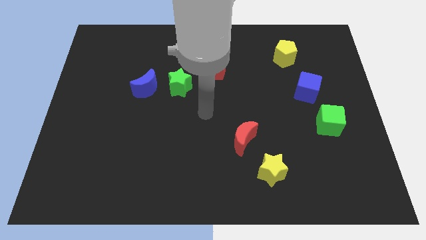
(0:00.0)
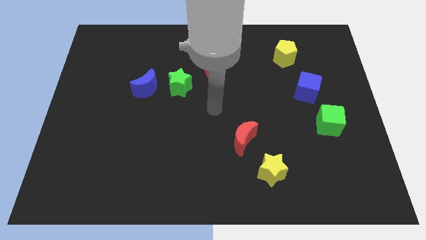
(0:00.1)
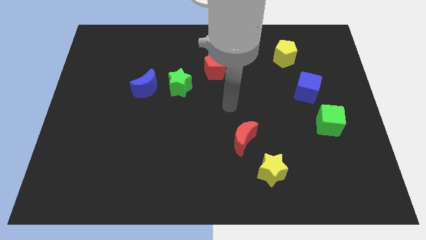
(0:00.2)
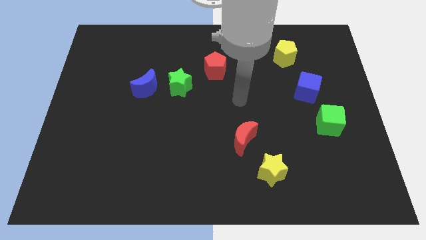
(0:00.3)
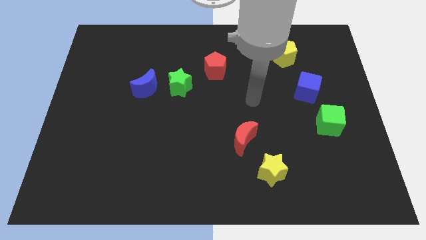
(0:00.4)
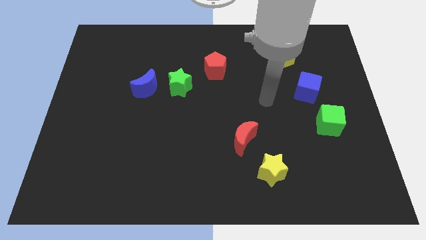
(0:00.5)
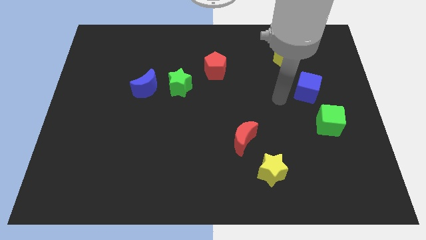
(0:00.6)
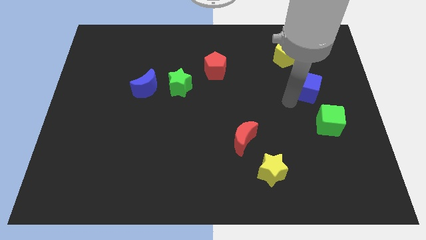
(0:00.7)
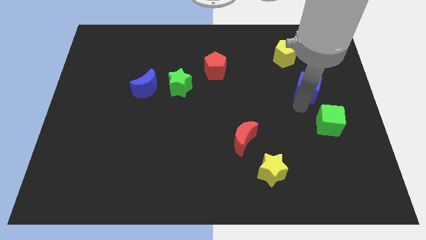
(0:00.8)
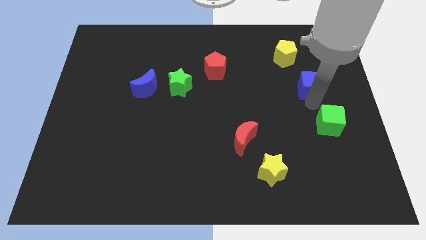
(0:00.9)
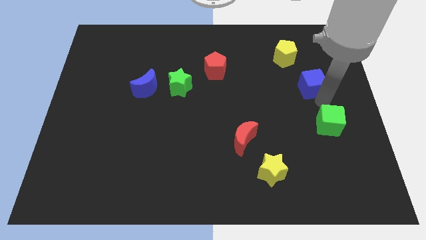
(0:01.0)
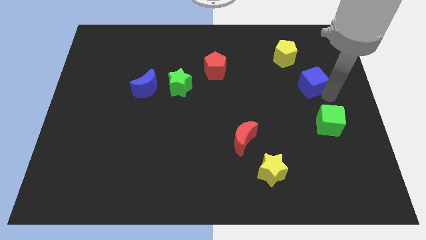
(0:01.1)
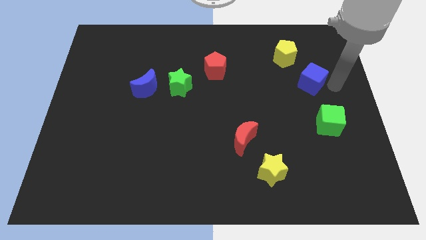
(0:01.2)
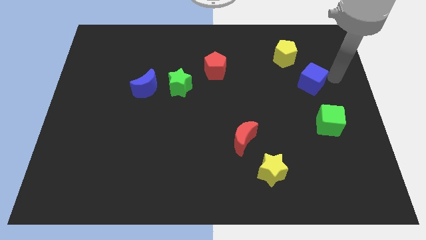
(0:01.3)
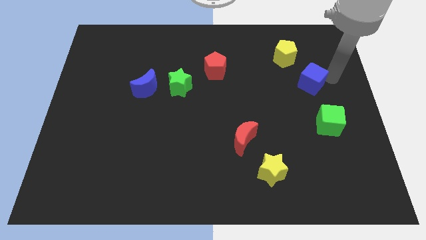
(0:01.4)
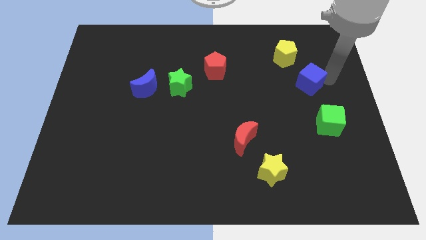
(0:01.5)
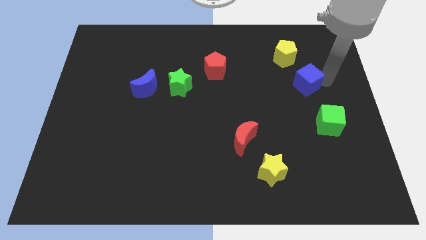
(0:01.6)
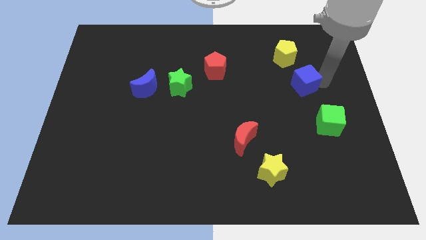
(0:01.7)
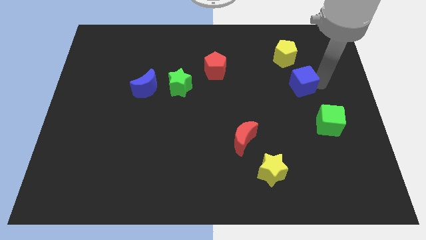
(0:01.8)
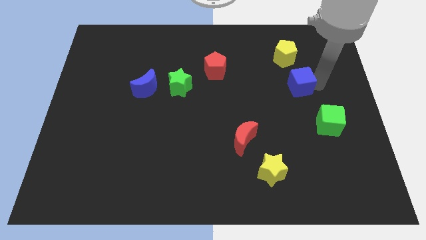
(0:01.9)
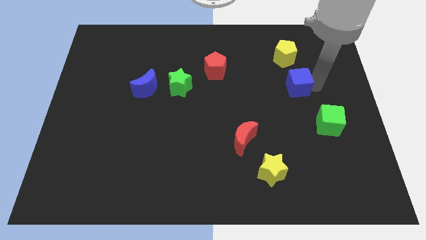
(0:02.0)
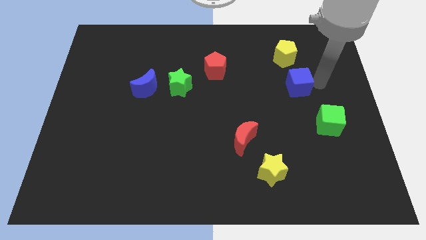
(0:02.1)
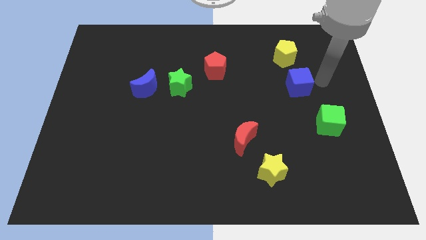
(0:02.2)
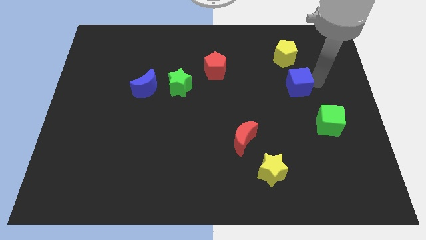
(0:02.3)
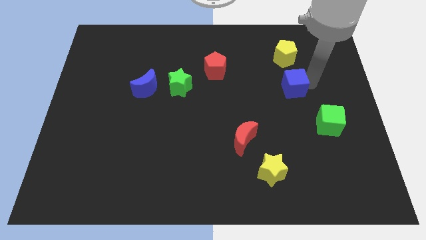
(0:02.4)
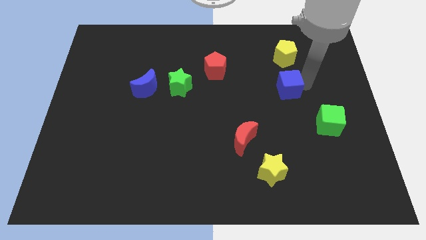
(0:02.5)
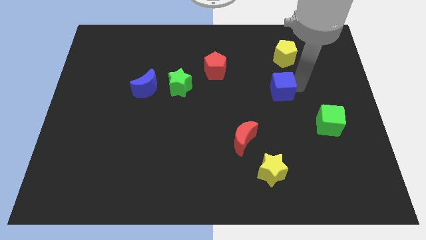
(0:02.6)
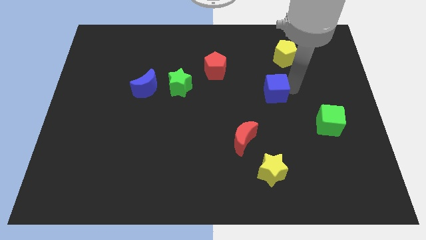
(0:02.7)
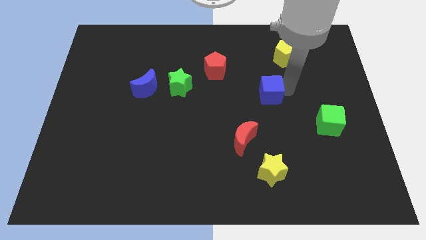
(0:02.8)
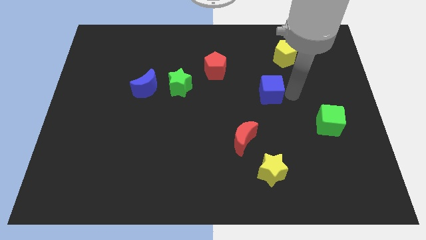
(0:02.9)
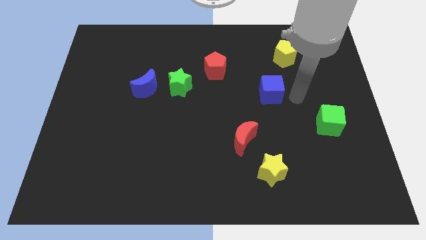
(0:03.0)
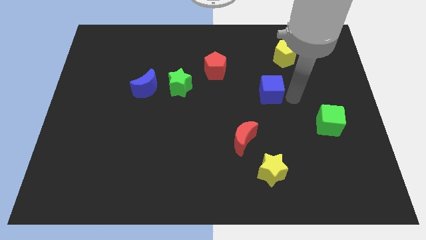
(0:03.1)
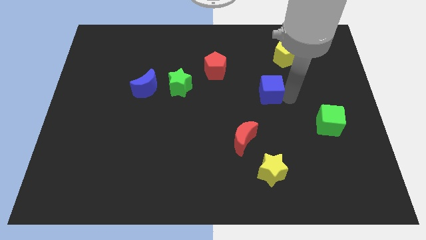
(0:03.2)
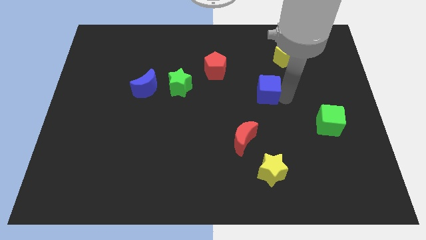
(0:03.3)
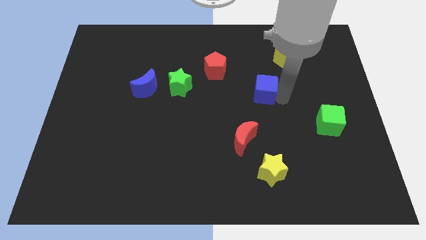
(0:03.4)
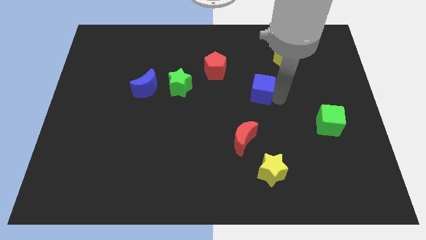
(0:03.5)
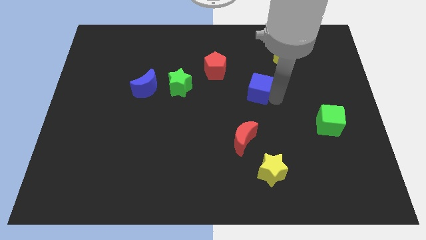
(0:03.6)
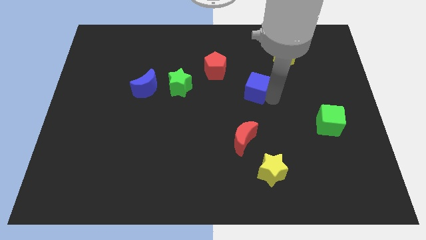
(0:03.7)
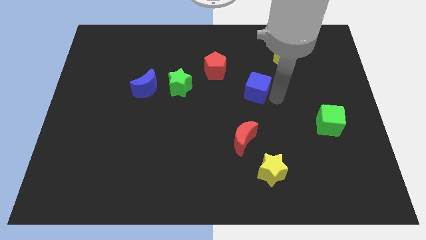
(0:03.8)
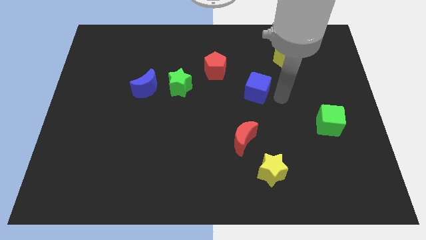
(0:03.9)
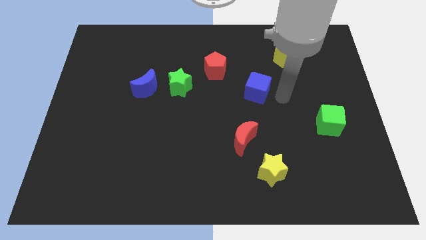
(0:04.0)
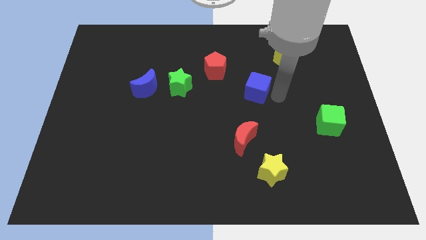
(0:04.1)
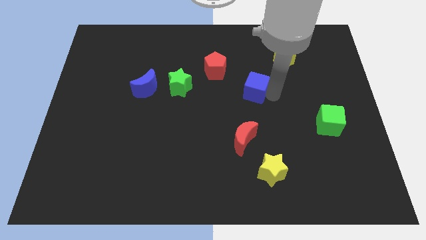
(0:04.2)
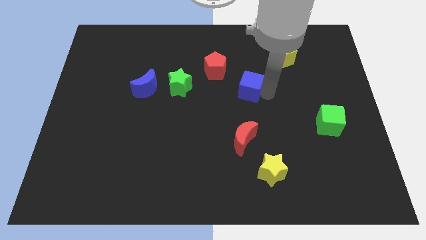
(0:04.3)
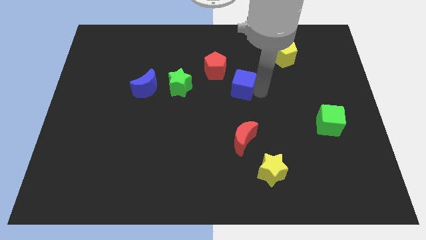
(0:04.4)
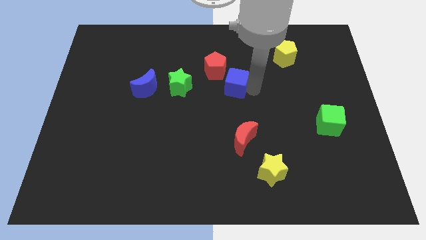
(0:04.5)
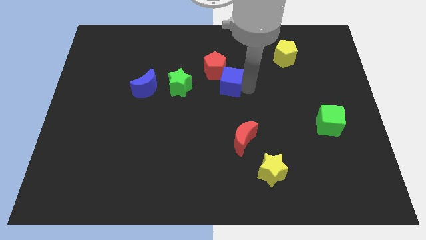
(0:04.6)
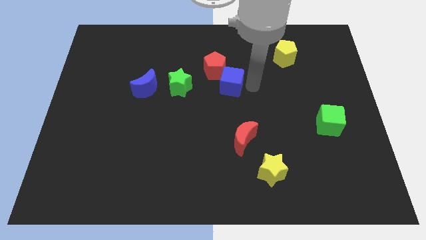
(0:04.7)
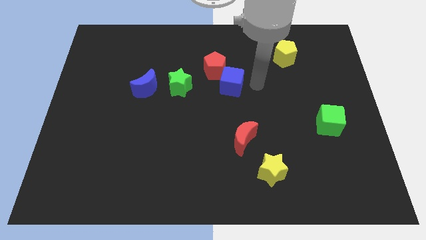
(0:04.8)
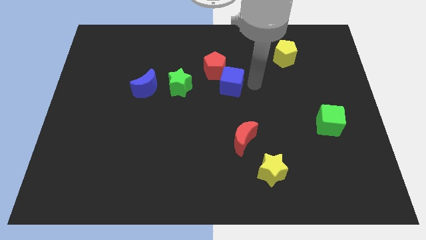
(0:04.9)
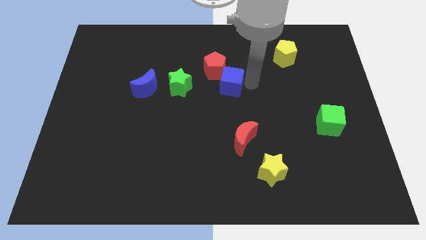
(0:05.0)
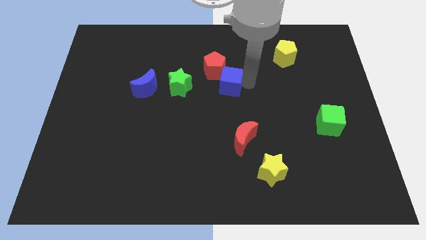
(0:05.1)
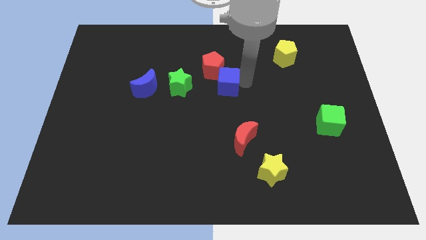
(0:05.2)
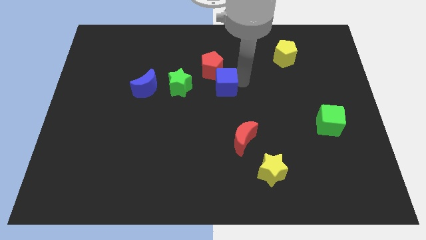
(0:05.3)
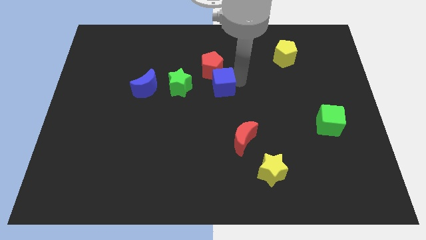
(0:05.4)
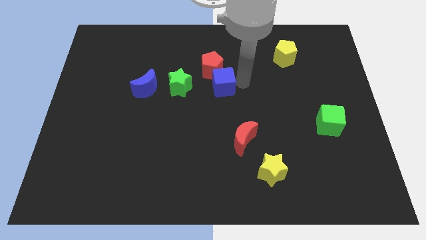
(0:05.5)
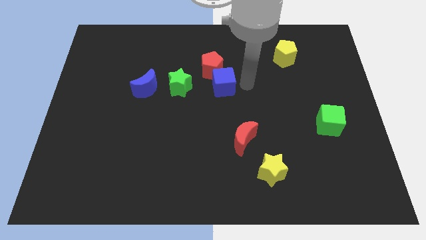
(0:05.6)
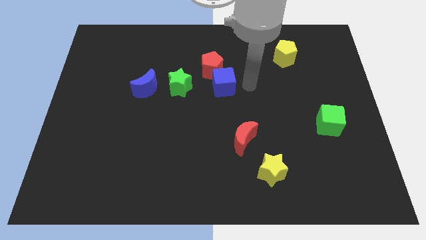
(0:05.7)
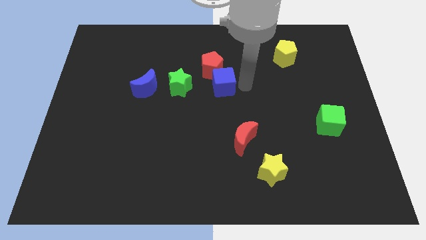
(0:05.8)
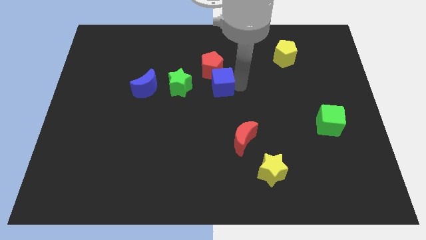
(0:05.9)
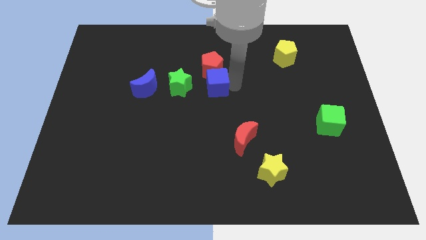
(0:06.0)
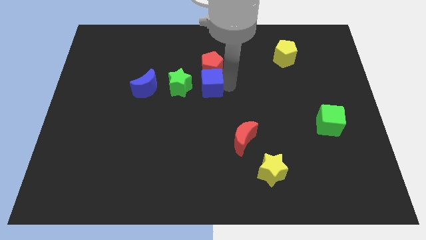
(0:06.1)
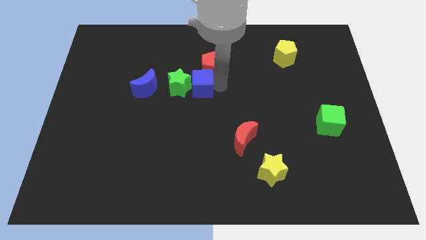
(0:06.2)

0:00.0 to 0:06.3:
push the blue cube next to the green star
